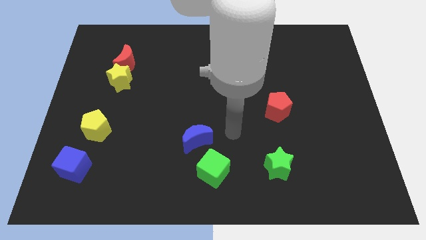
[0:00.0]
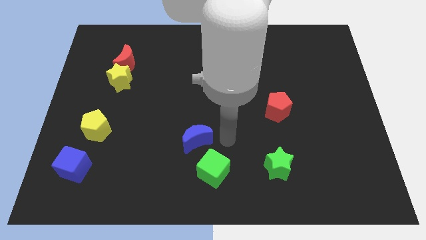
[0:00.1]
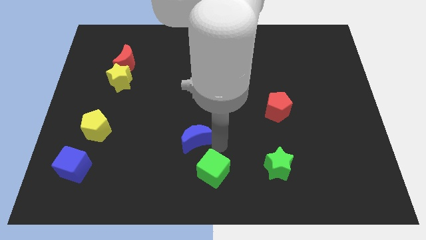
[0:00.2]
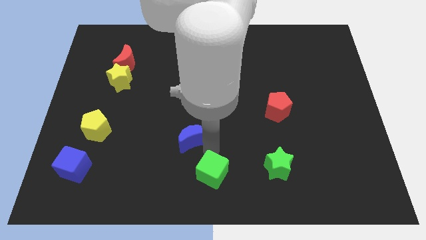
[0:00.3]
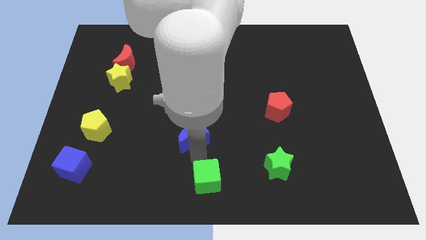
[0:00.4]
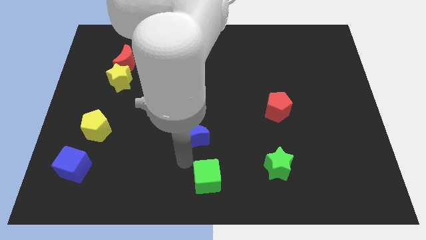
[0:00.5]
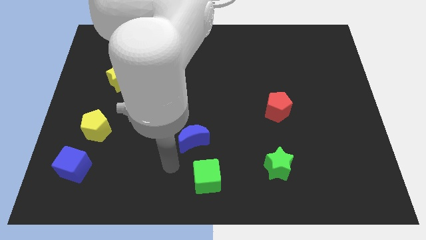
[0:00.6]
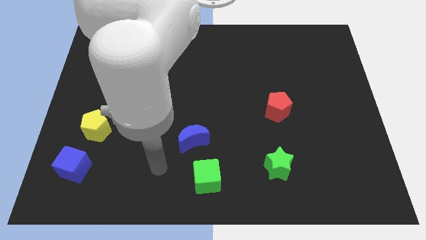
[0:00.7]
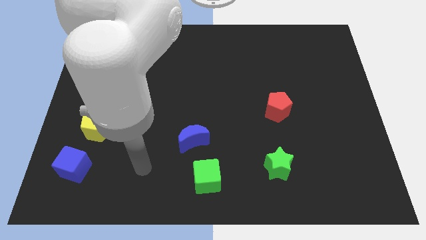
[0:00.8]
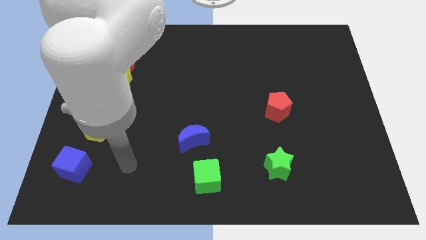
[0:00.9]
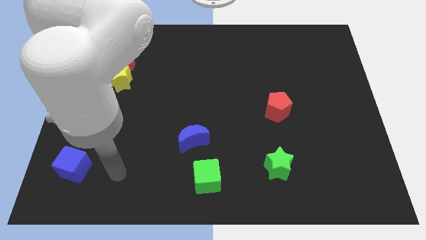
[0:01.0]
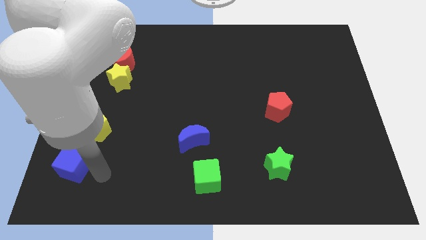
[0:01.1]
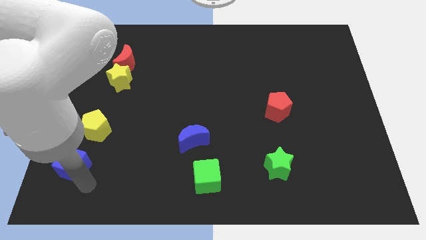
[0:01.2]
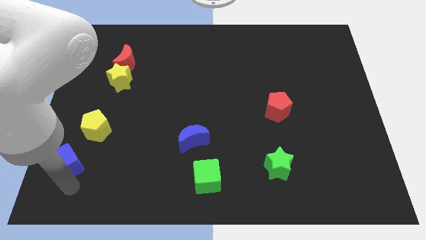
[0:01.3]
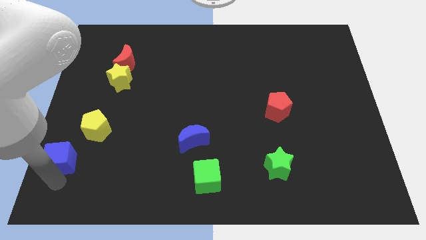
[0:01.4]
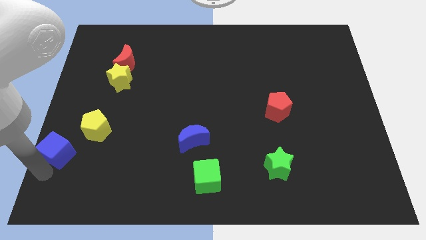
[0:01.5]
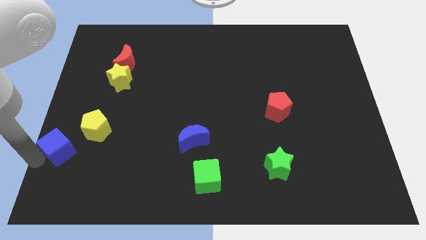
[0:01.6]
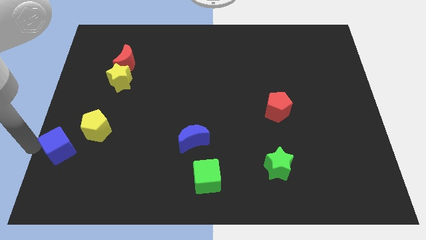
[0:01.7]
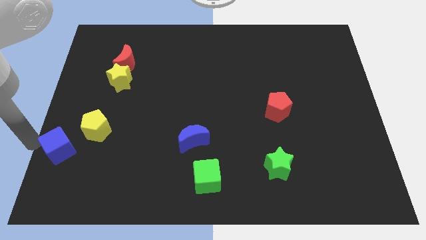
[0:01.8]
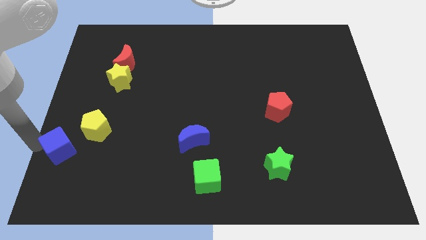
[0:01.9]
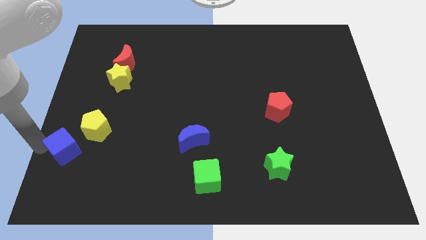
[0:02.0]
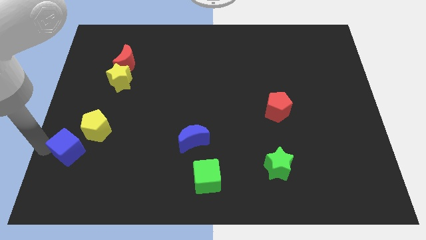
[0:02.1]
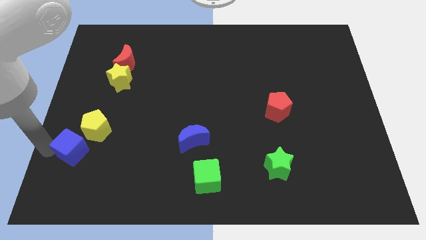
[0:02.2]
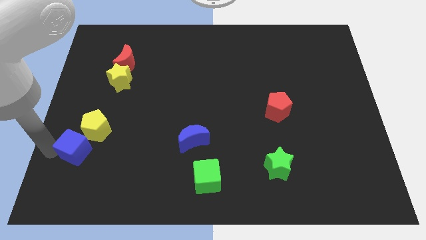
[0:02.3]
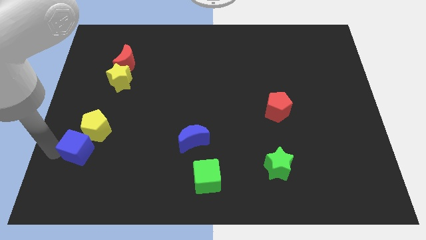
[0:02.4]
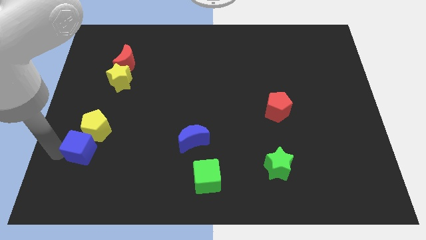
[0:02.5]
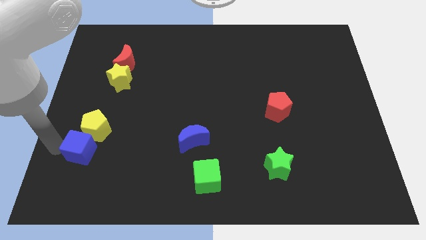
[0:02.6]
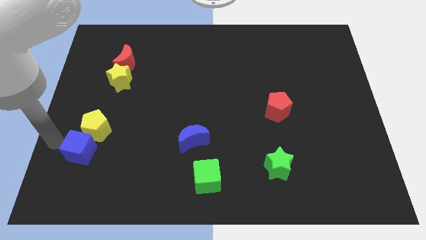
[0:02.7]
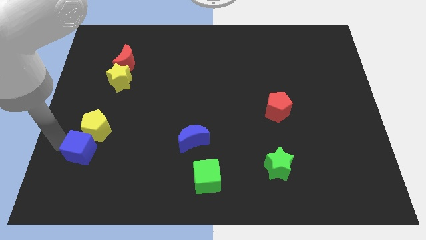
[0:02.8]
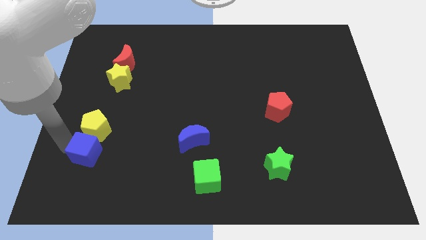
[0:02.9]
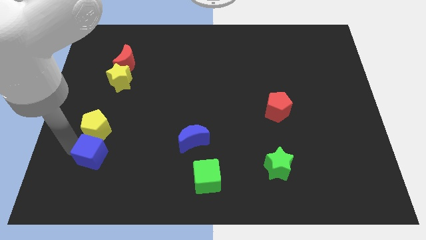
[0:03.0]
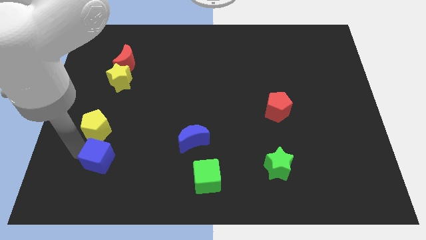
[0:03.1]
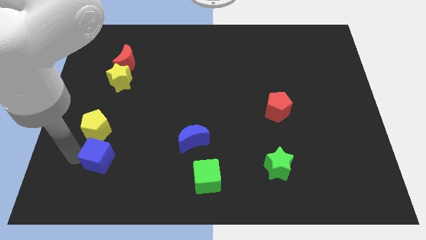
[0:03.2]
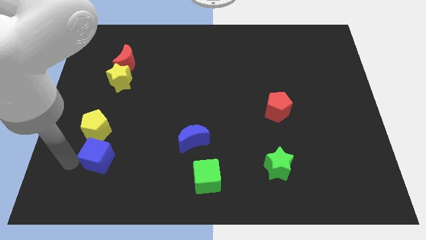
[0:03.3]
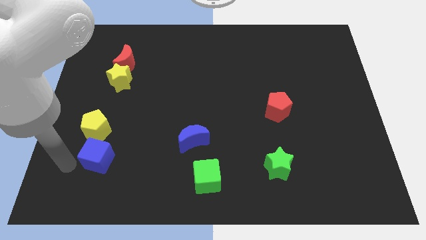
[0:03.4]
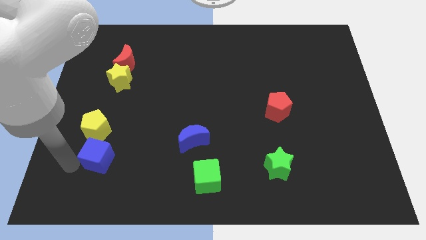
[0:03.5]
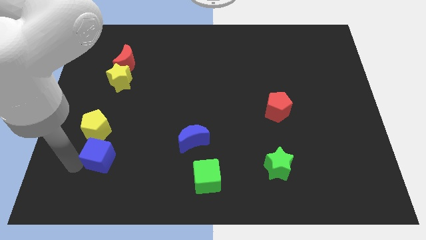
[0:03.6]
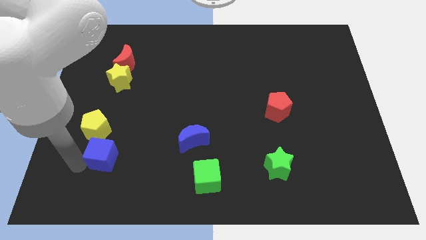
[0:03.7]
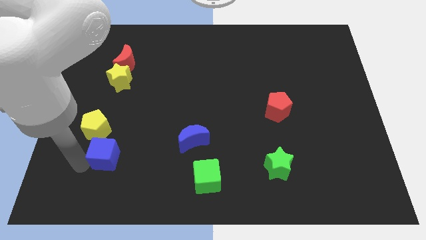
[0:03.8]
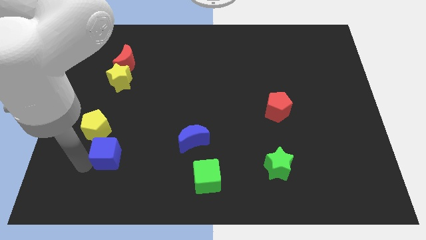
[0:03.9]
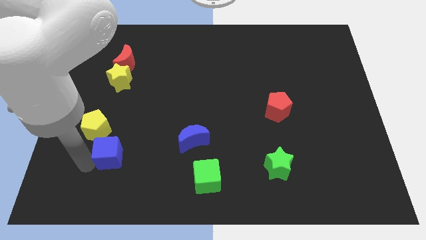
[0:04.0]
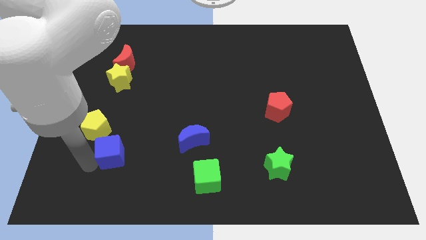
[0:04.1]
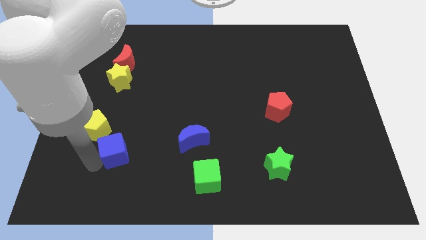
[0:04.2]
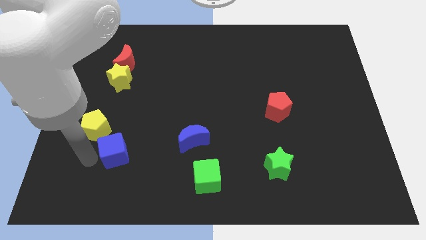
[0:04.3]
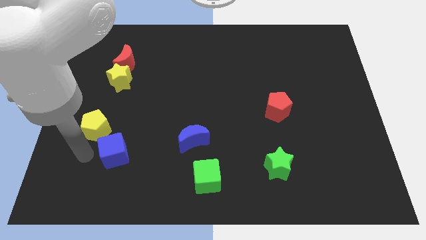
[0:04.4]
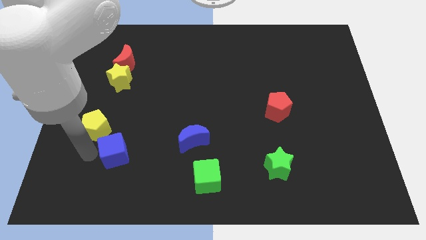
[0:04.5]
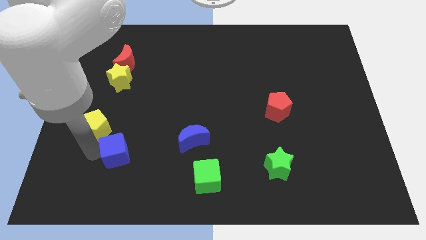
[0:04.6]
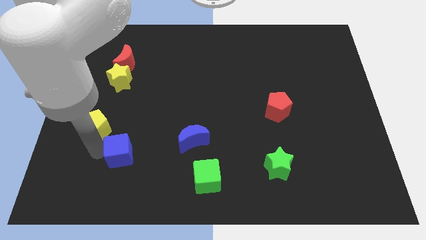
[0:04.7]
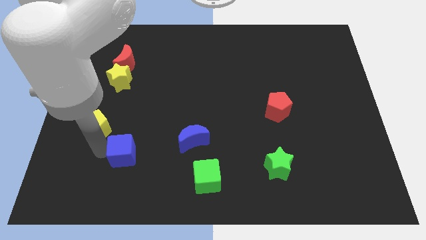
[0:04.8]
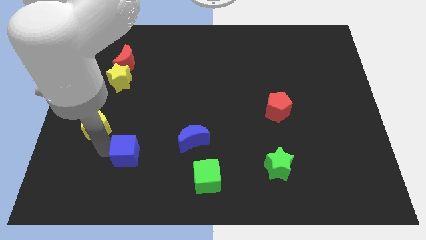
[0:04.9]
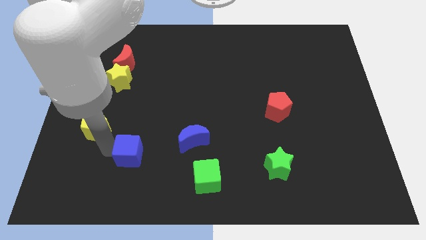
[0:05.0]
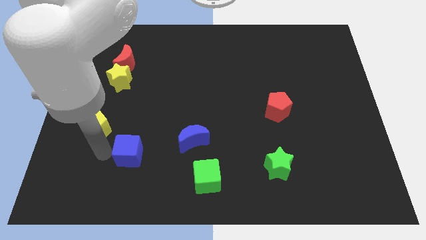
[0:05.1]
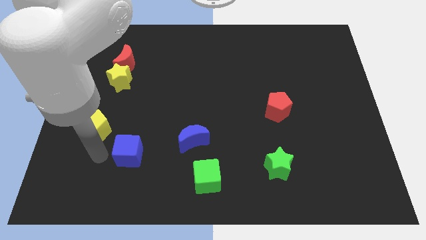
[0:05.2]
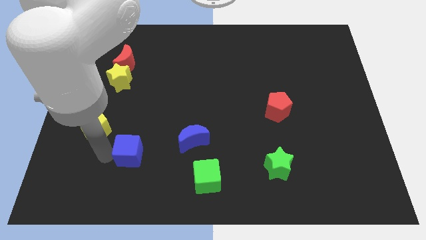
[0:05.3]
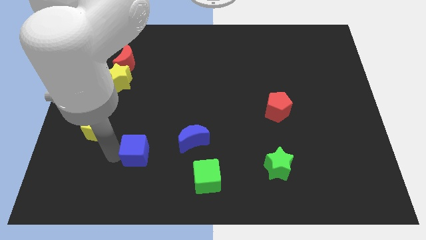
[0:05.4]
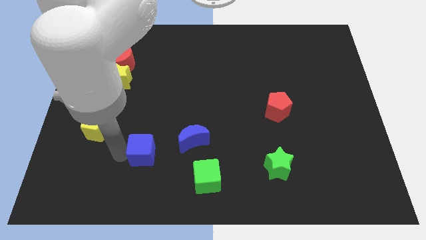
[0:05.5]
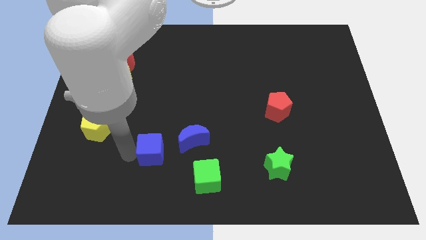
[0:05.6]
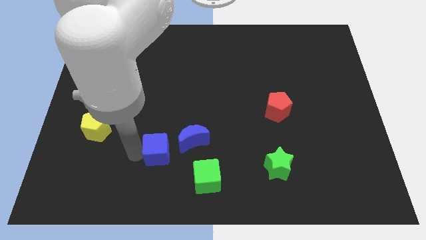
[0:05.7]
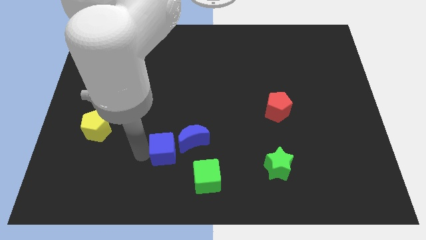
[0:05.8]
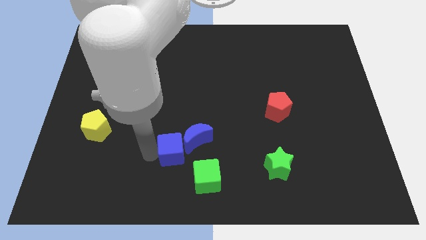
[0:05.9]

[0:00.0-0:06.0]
put the blue cube next to the blue moon
